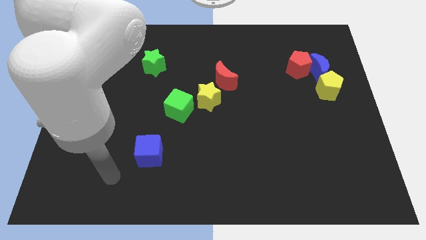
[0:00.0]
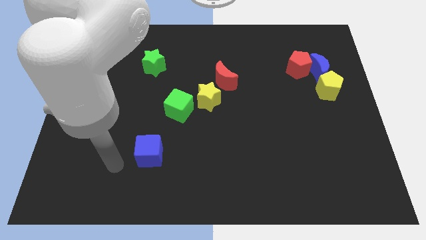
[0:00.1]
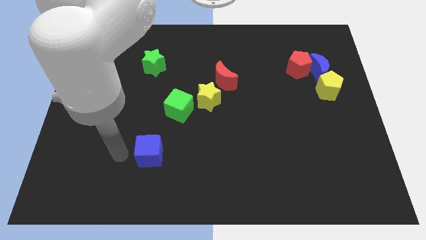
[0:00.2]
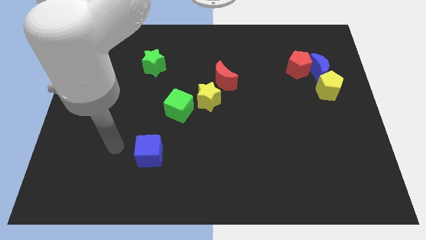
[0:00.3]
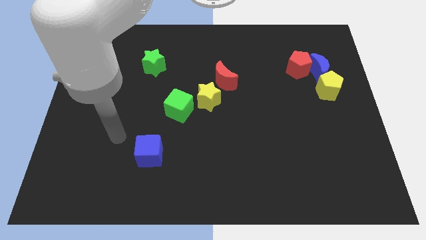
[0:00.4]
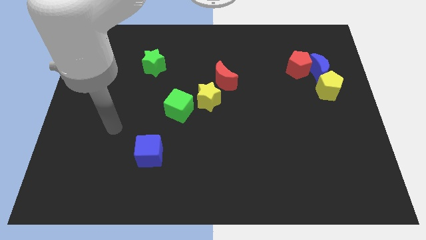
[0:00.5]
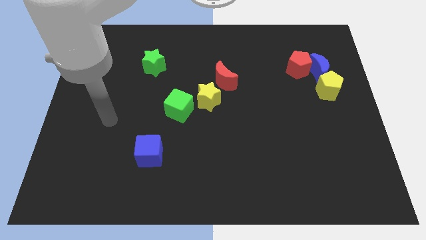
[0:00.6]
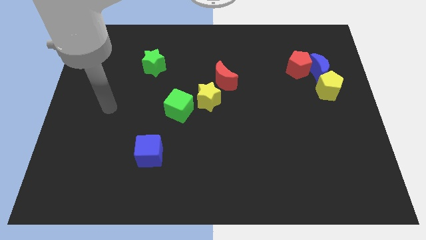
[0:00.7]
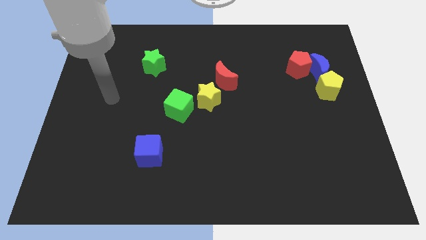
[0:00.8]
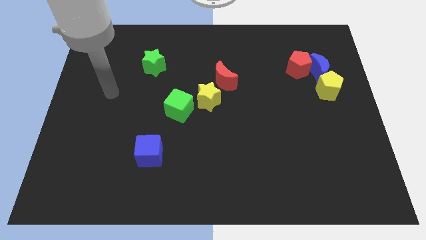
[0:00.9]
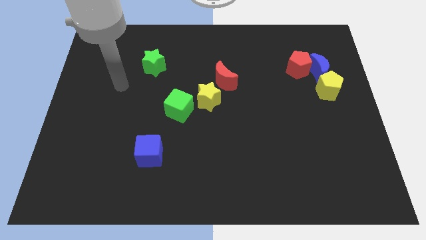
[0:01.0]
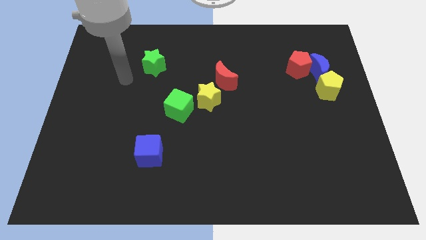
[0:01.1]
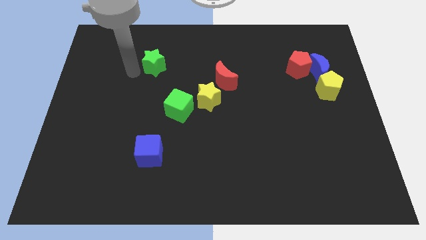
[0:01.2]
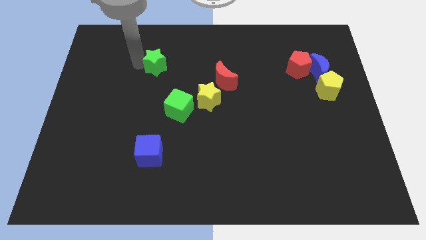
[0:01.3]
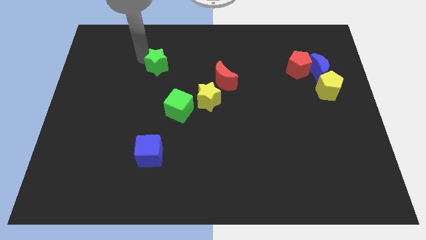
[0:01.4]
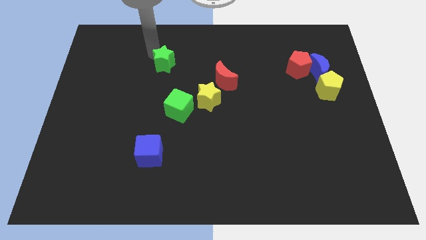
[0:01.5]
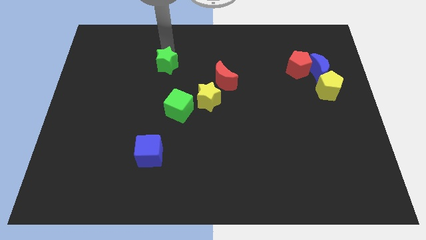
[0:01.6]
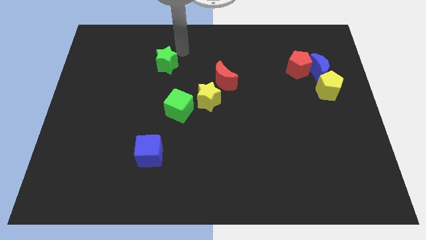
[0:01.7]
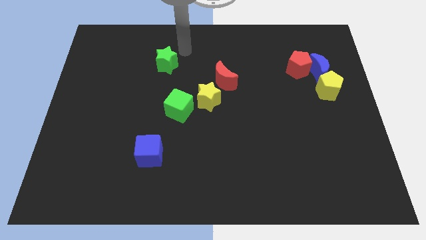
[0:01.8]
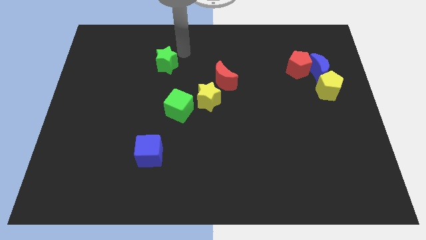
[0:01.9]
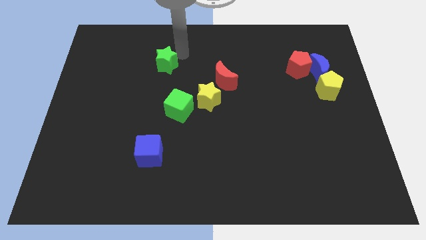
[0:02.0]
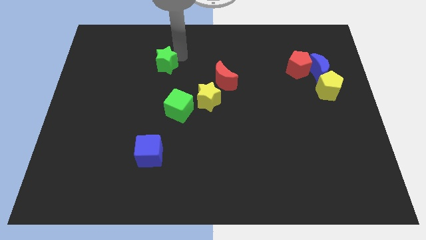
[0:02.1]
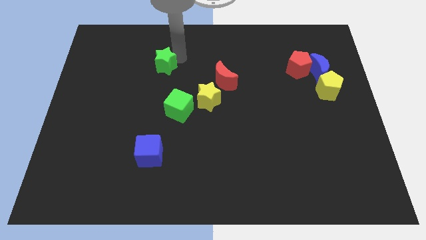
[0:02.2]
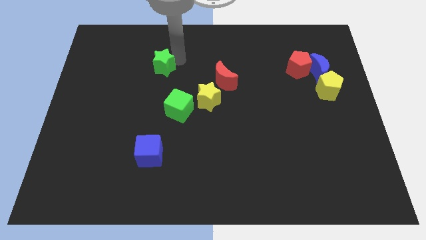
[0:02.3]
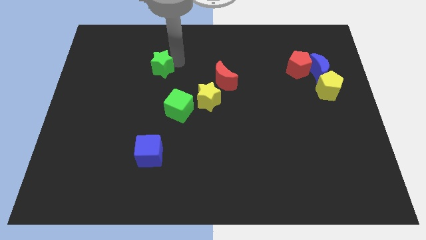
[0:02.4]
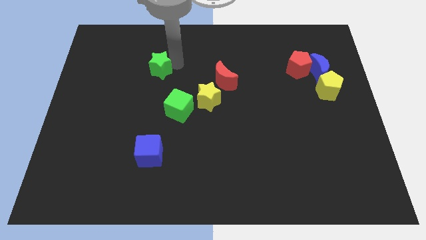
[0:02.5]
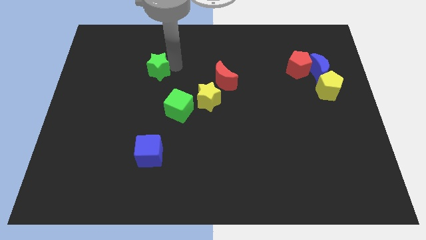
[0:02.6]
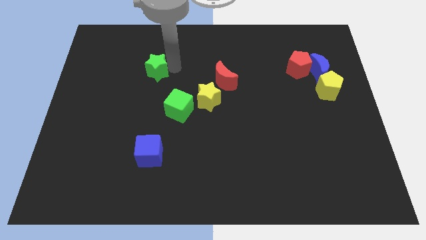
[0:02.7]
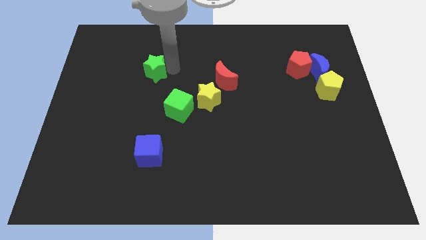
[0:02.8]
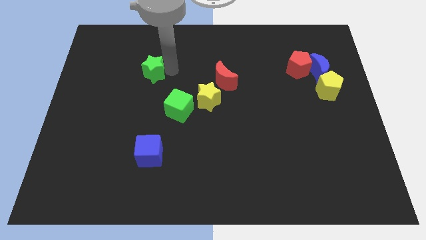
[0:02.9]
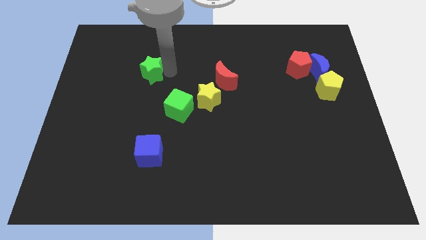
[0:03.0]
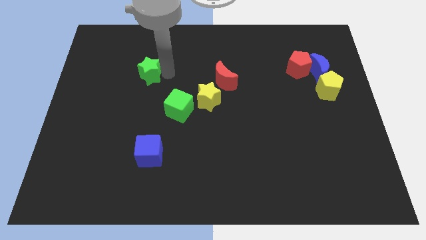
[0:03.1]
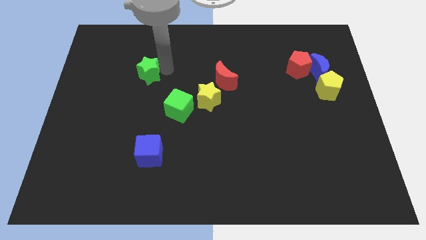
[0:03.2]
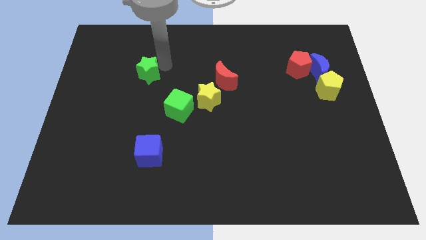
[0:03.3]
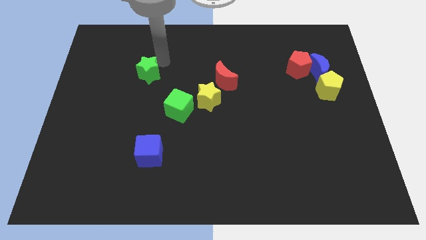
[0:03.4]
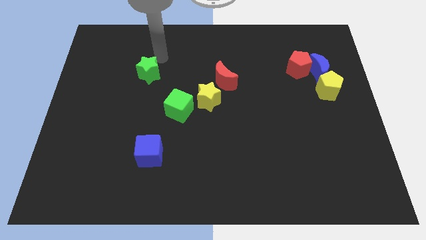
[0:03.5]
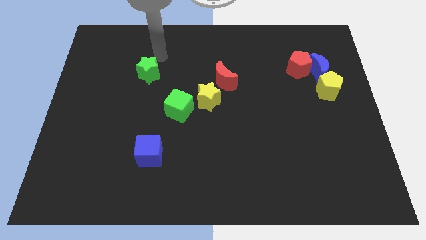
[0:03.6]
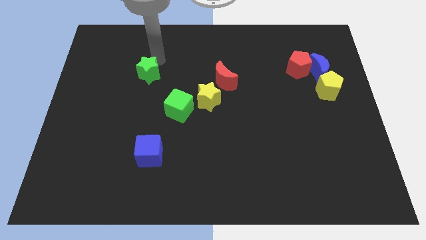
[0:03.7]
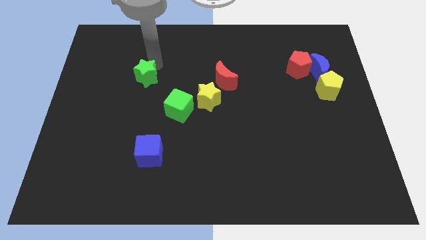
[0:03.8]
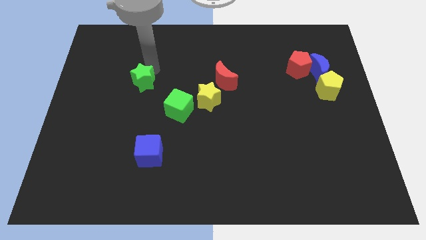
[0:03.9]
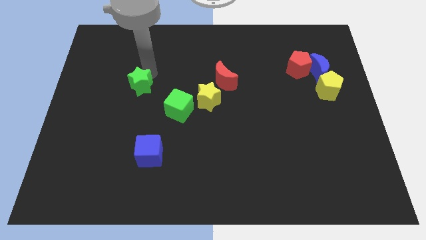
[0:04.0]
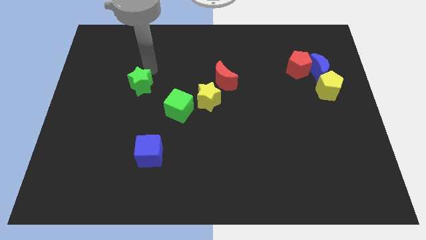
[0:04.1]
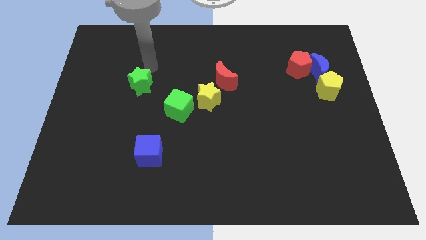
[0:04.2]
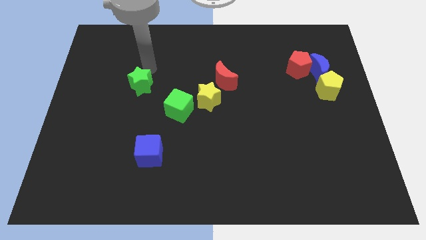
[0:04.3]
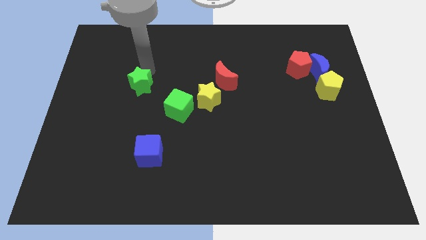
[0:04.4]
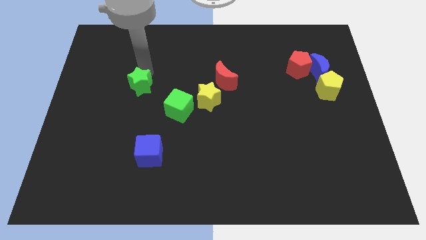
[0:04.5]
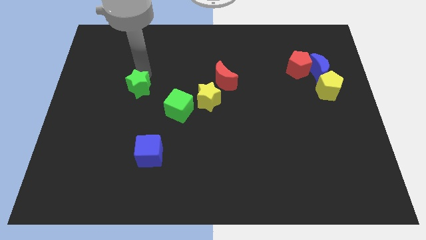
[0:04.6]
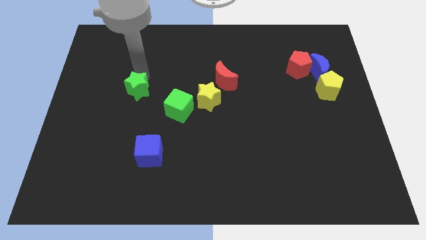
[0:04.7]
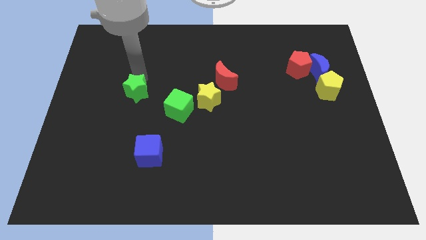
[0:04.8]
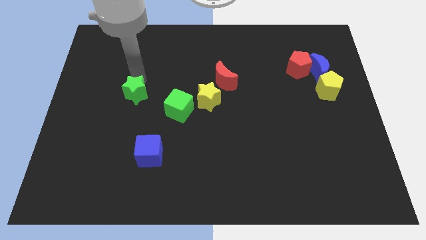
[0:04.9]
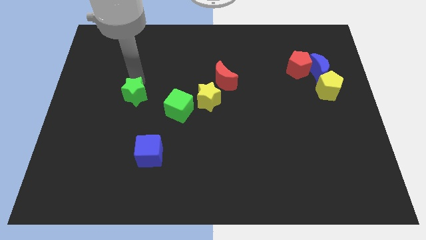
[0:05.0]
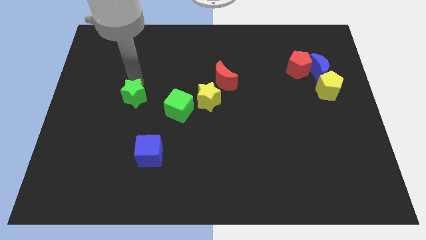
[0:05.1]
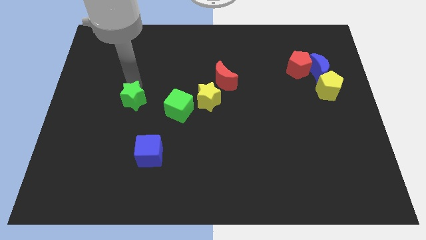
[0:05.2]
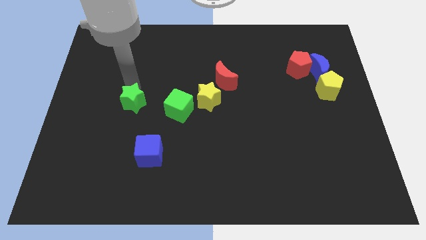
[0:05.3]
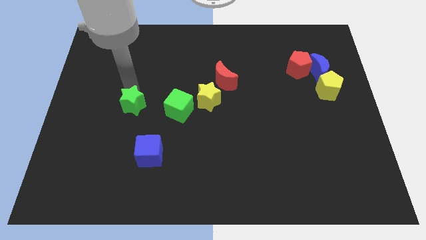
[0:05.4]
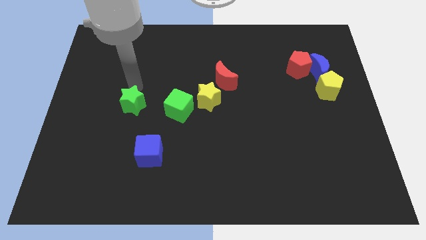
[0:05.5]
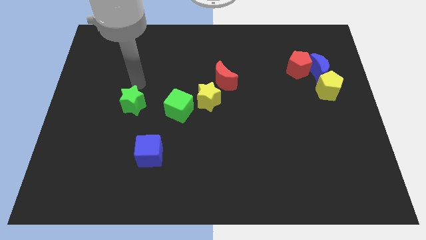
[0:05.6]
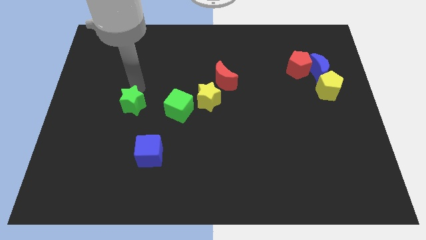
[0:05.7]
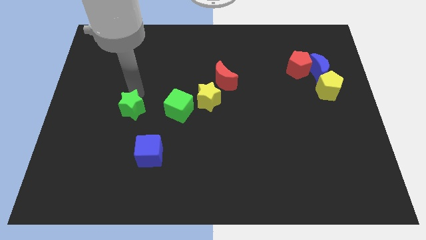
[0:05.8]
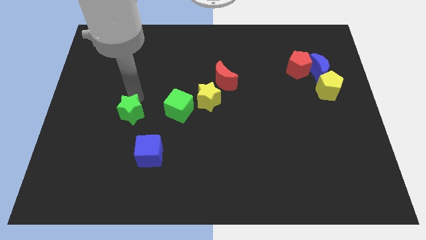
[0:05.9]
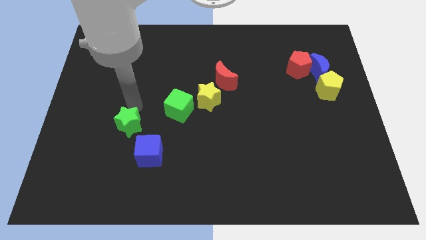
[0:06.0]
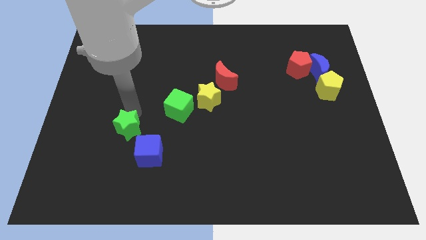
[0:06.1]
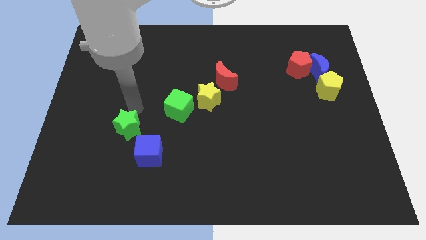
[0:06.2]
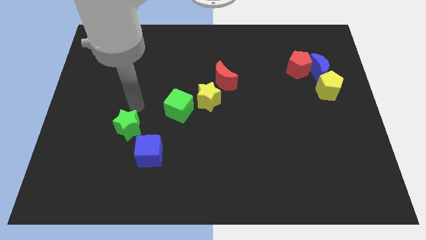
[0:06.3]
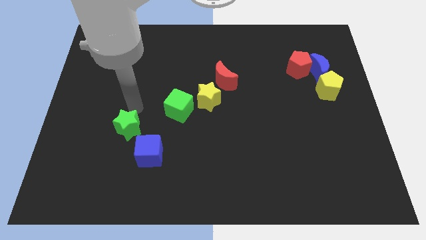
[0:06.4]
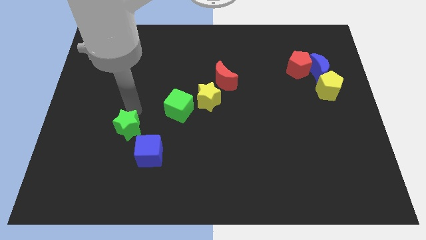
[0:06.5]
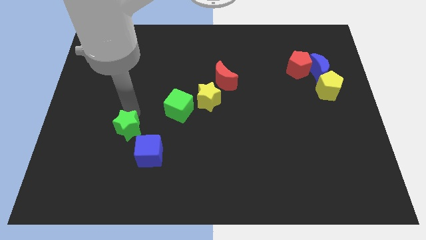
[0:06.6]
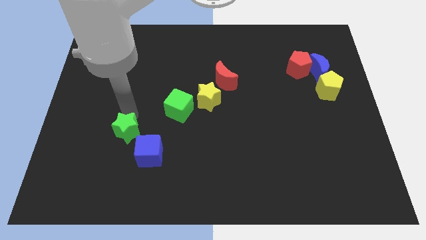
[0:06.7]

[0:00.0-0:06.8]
slide the green star down

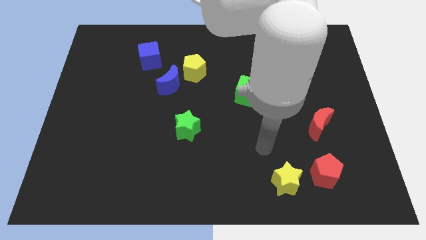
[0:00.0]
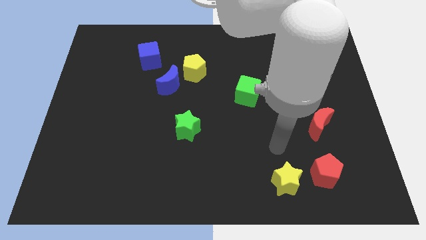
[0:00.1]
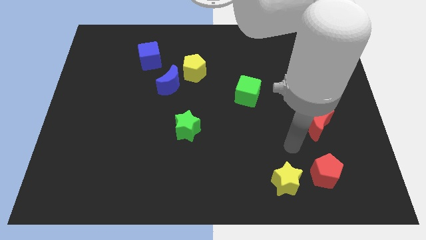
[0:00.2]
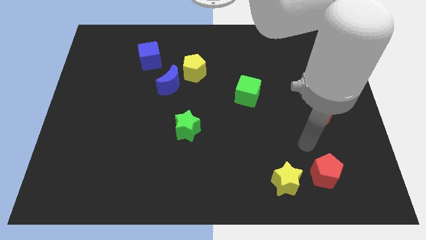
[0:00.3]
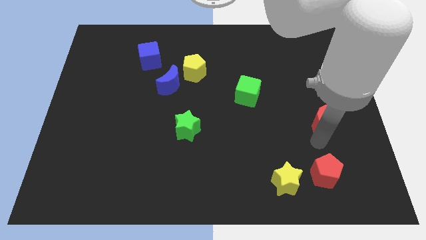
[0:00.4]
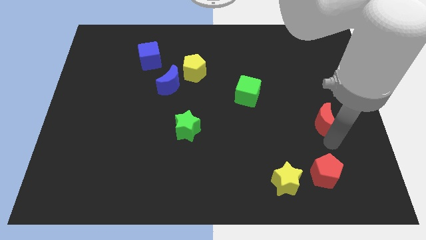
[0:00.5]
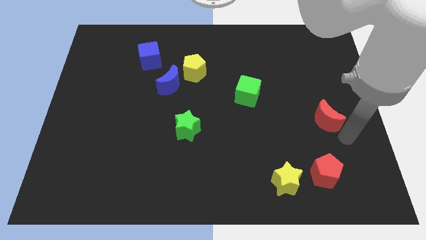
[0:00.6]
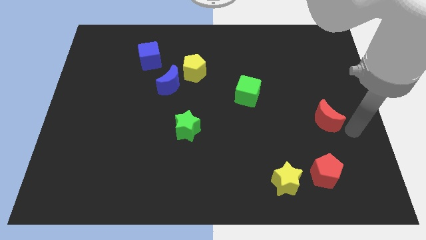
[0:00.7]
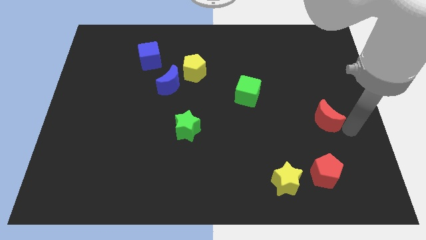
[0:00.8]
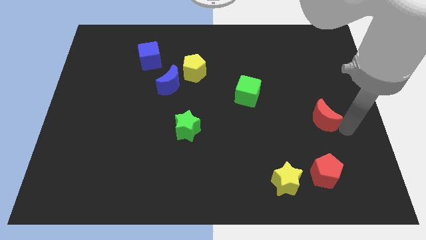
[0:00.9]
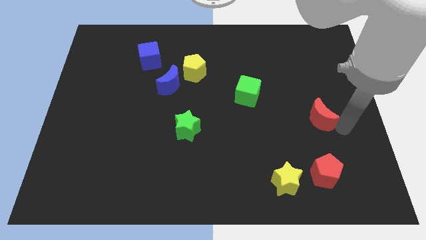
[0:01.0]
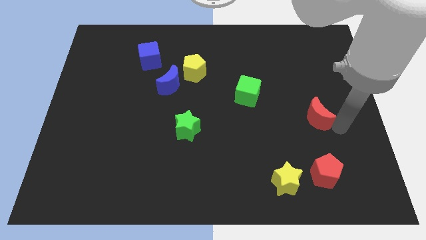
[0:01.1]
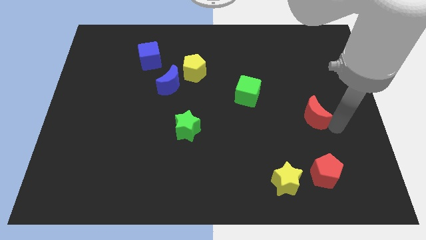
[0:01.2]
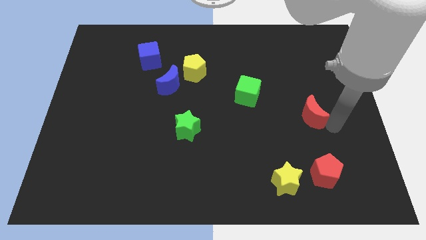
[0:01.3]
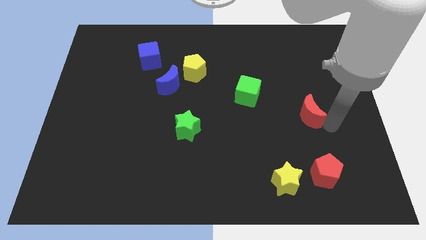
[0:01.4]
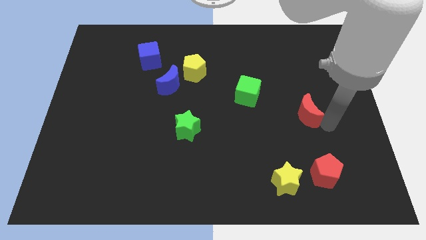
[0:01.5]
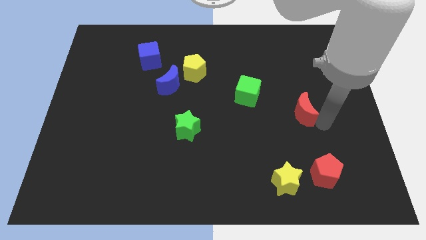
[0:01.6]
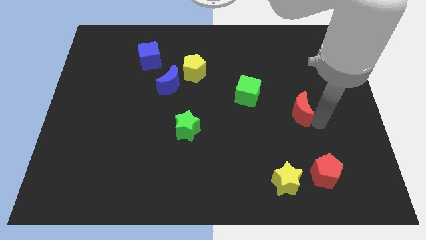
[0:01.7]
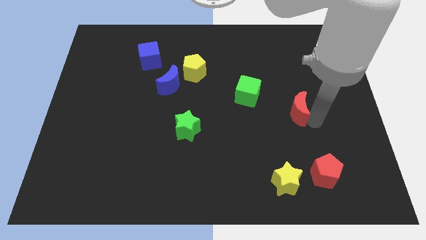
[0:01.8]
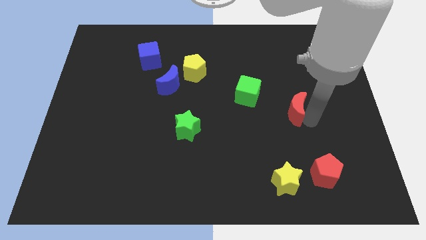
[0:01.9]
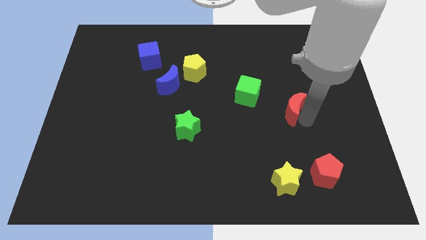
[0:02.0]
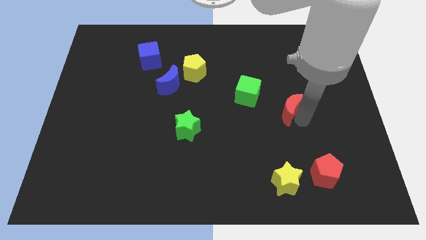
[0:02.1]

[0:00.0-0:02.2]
slide the red moon a little bit up and to the left diagonally
